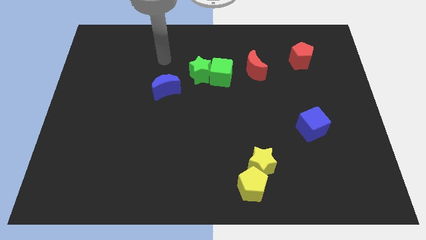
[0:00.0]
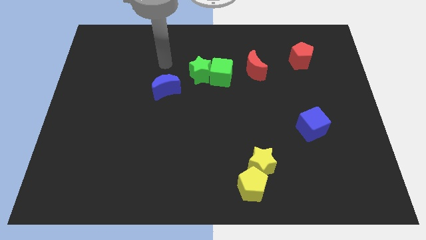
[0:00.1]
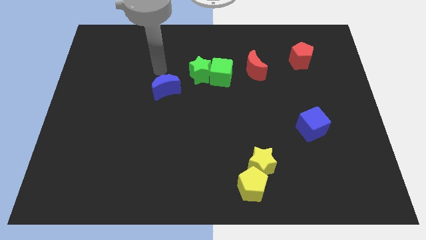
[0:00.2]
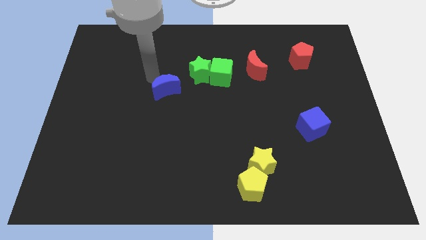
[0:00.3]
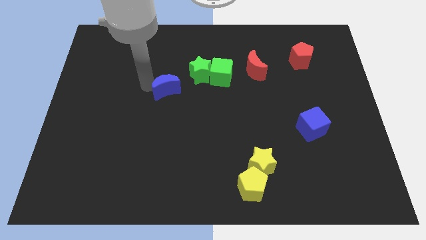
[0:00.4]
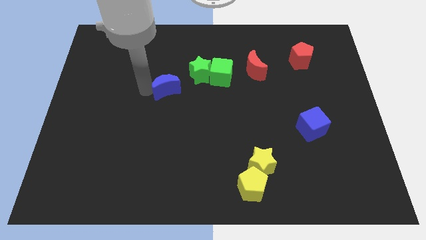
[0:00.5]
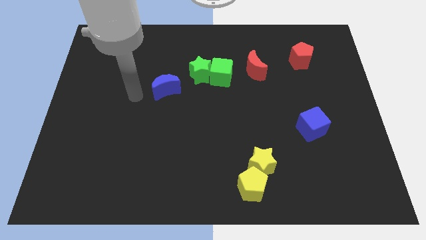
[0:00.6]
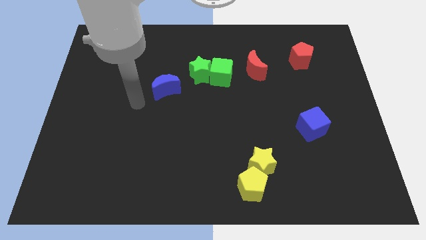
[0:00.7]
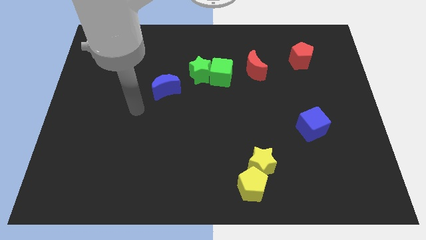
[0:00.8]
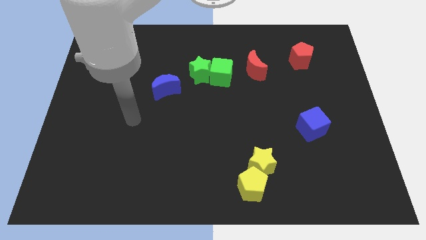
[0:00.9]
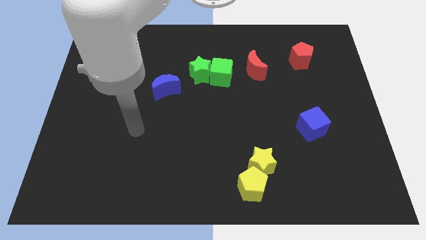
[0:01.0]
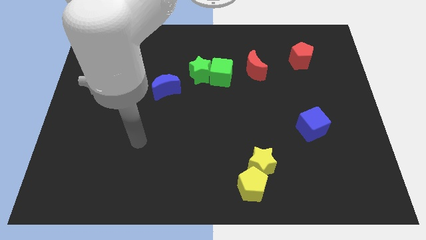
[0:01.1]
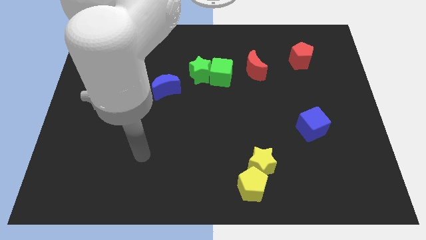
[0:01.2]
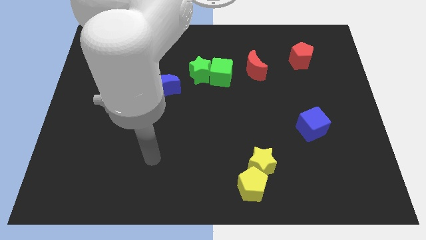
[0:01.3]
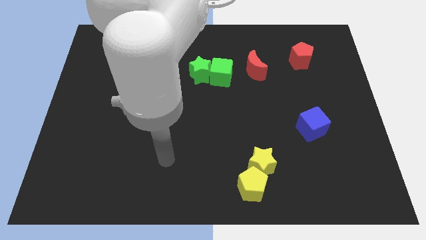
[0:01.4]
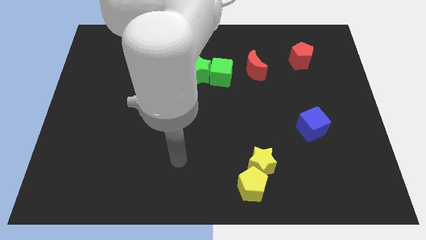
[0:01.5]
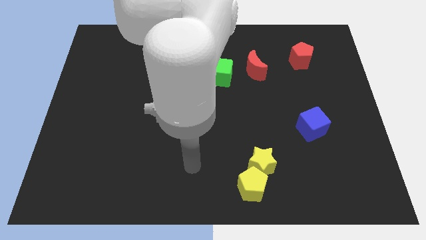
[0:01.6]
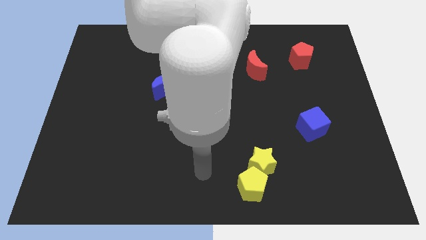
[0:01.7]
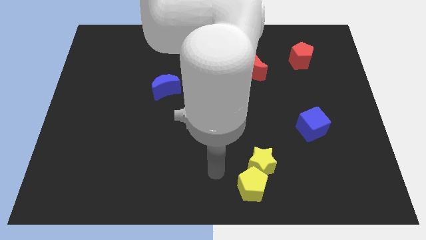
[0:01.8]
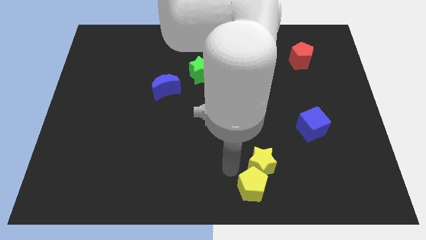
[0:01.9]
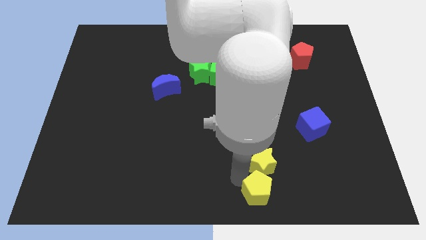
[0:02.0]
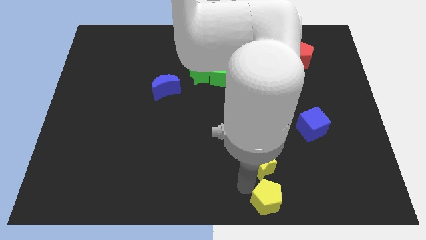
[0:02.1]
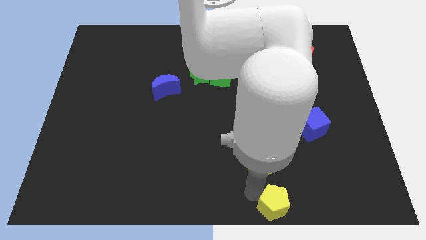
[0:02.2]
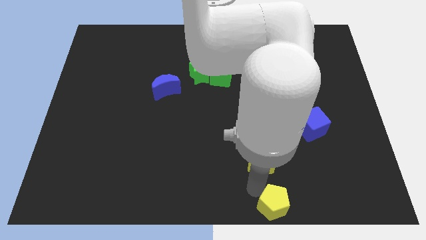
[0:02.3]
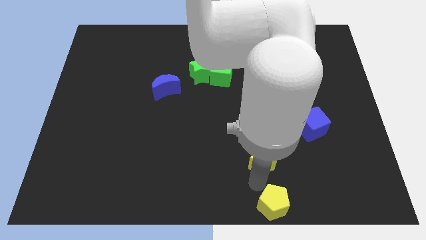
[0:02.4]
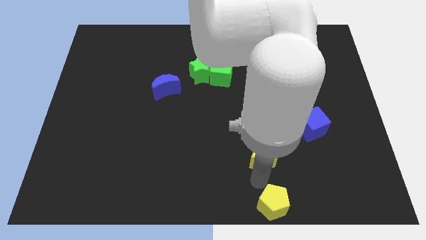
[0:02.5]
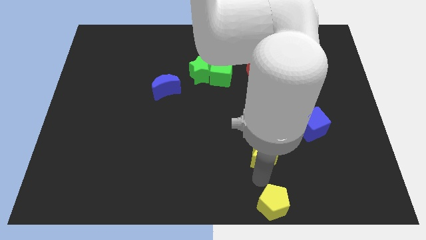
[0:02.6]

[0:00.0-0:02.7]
move the yellow star away from the yellow pentagon

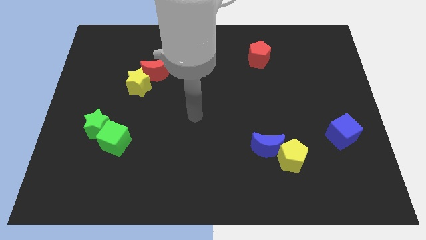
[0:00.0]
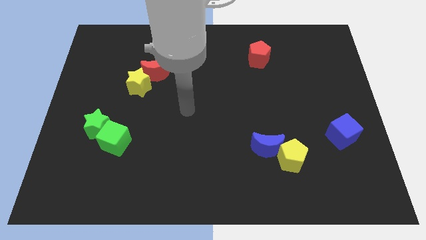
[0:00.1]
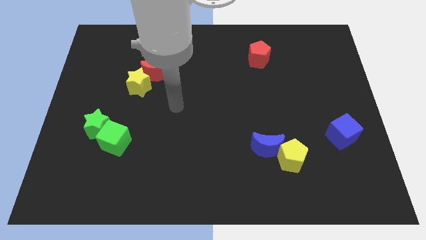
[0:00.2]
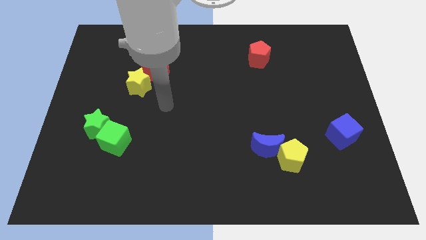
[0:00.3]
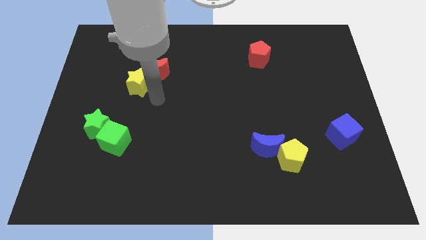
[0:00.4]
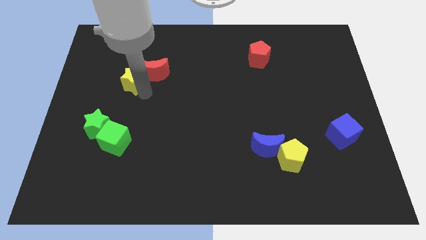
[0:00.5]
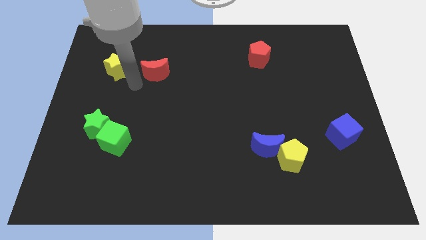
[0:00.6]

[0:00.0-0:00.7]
separate the red moon from the yellow star

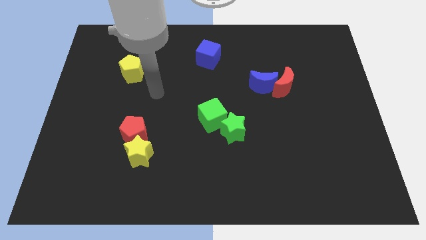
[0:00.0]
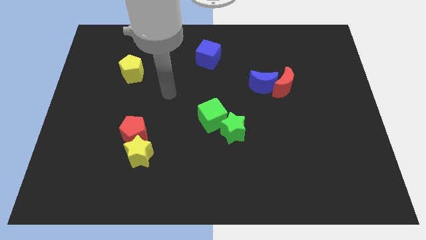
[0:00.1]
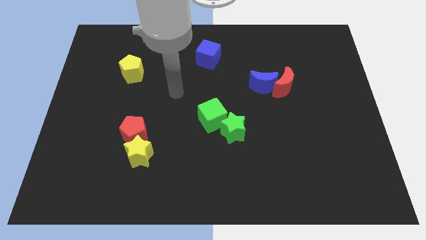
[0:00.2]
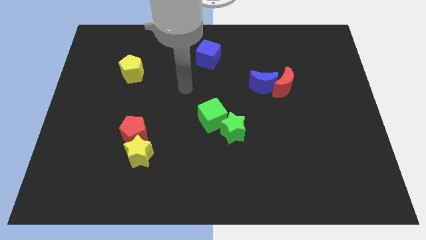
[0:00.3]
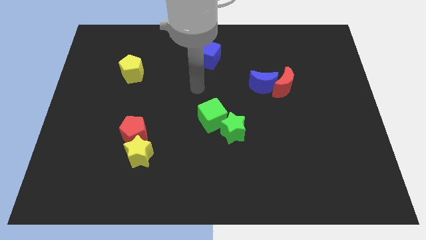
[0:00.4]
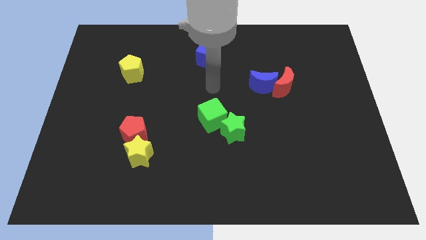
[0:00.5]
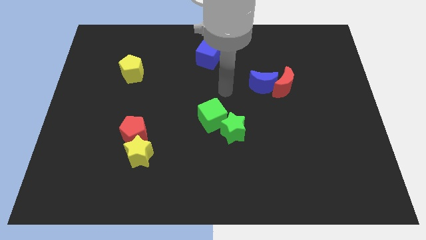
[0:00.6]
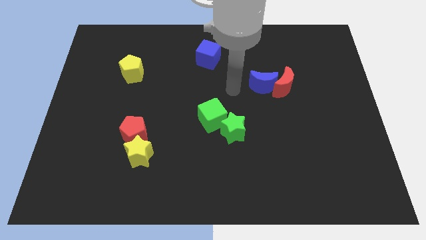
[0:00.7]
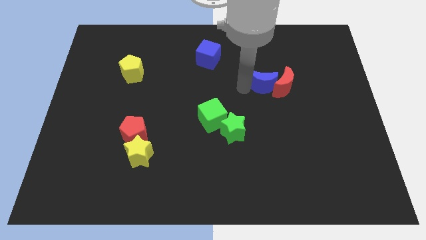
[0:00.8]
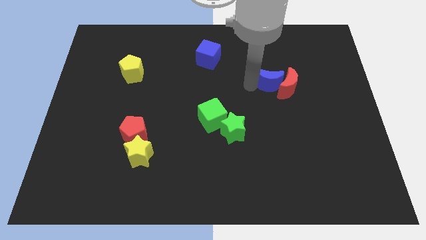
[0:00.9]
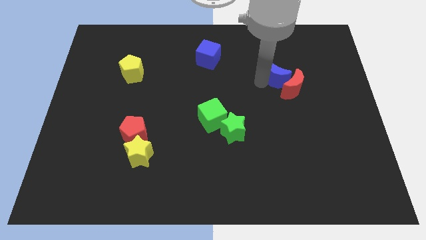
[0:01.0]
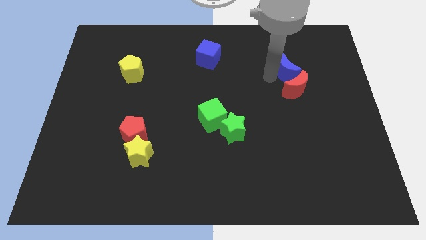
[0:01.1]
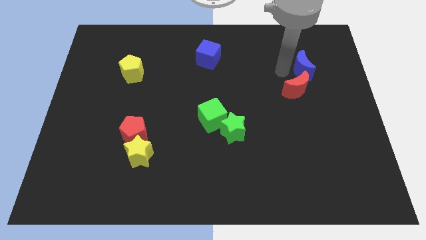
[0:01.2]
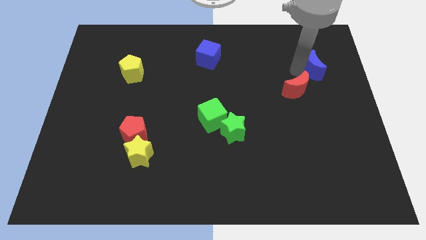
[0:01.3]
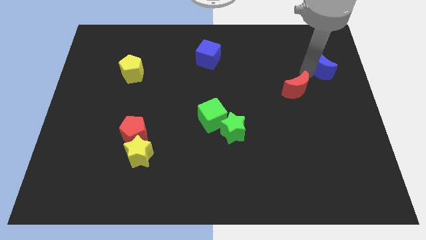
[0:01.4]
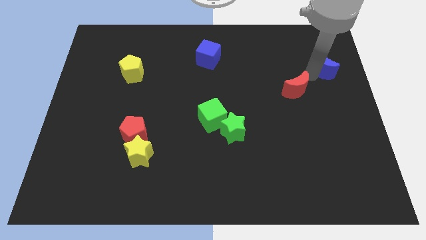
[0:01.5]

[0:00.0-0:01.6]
separate the red moon from the blue moon

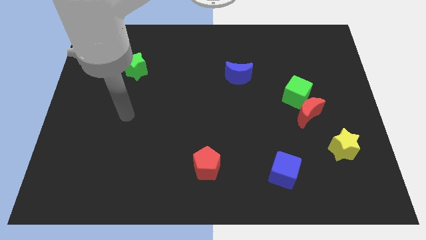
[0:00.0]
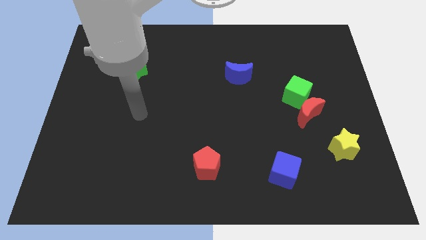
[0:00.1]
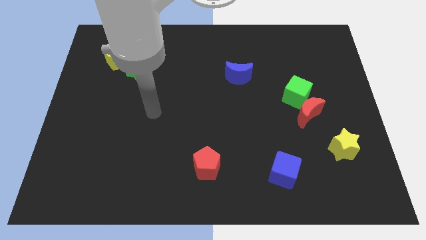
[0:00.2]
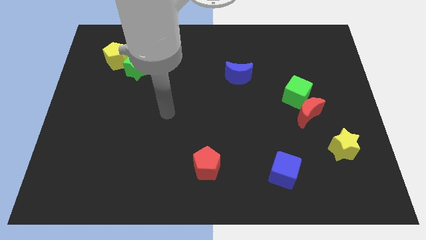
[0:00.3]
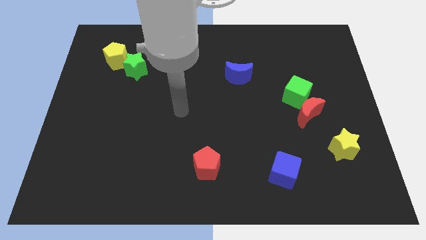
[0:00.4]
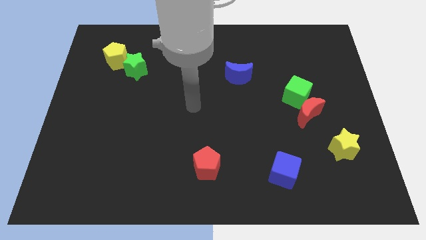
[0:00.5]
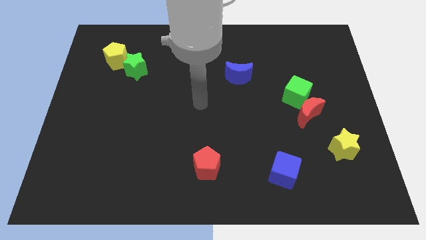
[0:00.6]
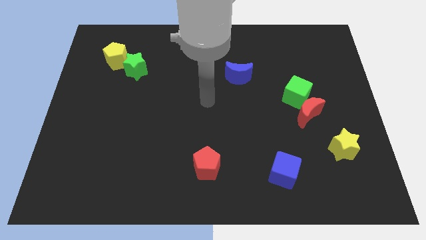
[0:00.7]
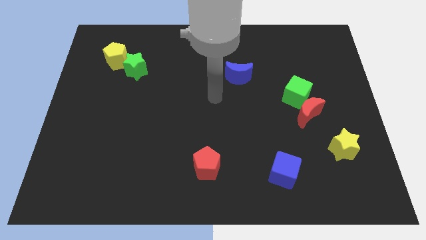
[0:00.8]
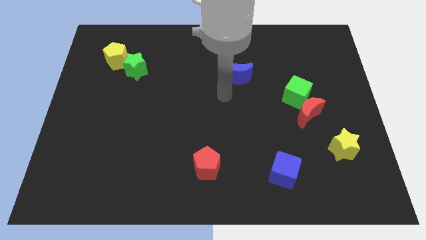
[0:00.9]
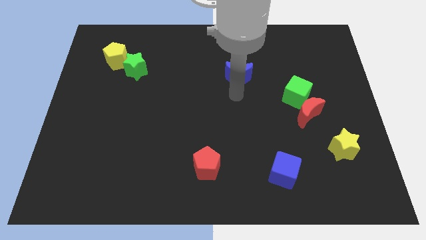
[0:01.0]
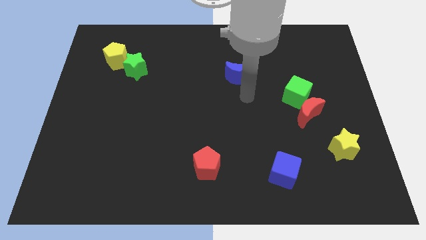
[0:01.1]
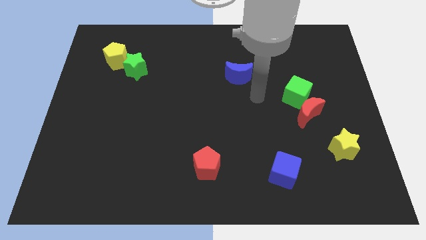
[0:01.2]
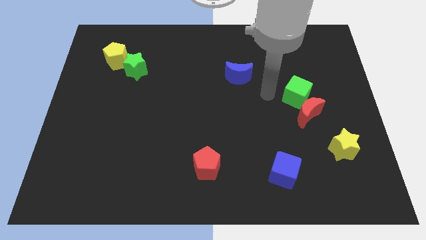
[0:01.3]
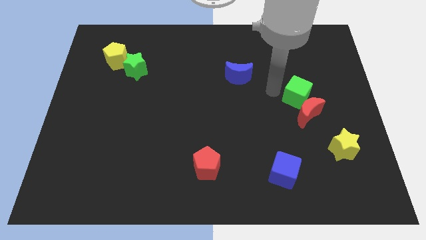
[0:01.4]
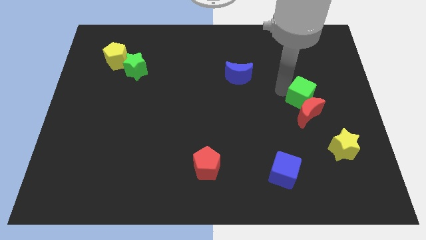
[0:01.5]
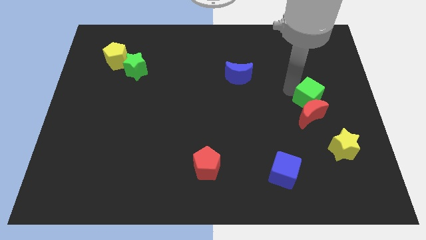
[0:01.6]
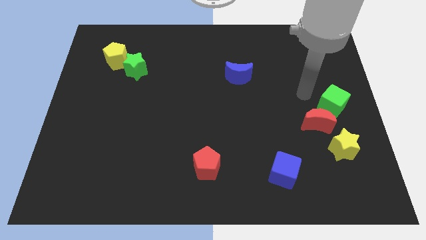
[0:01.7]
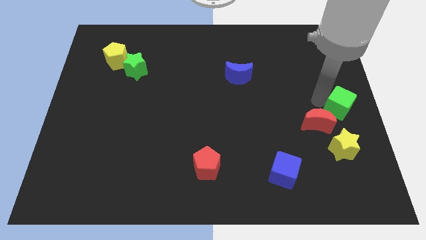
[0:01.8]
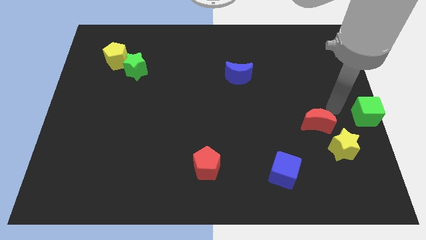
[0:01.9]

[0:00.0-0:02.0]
pull the red moon apart from the green cube

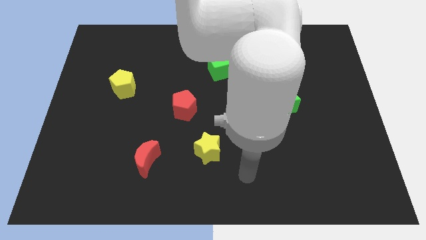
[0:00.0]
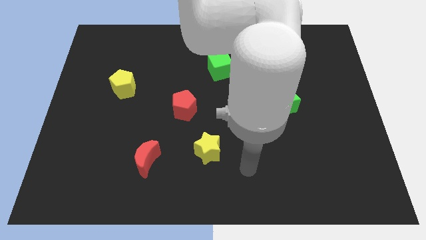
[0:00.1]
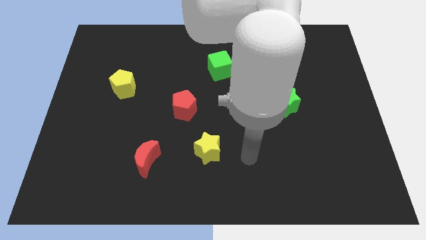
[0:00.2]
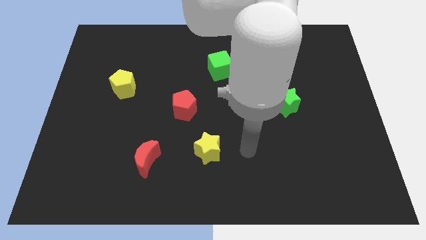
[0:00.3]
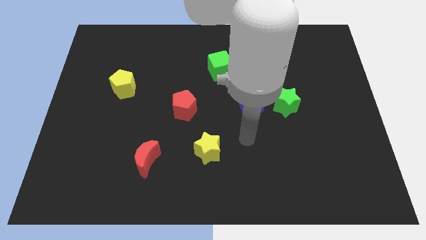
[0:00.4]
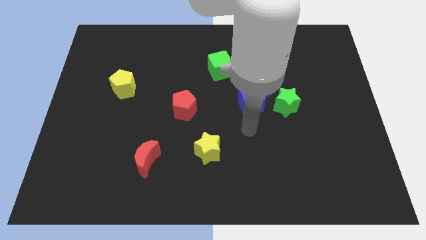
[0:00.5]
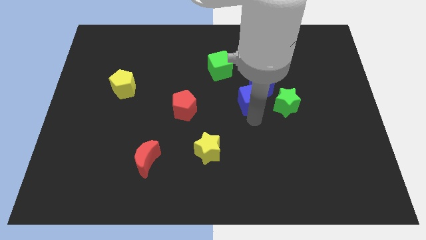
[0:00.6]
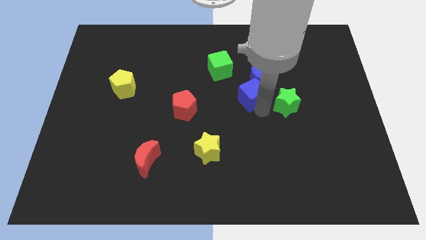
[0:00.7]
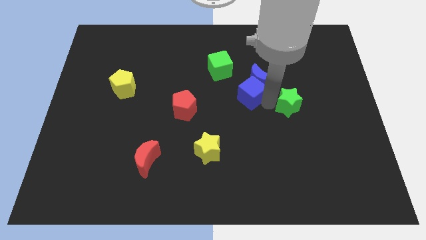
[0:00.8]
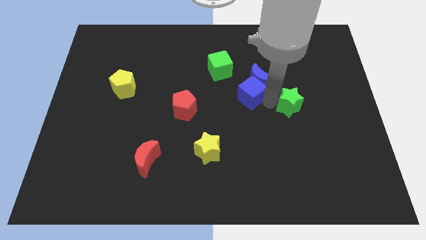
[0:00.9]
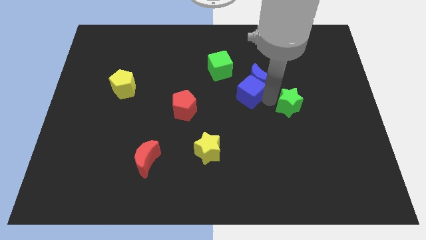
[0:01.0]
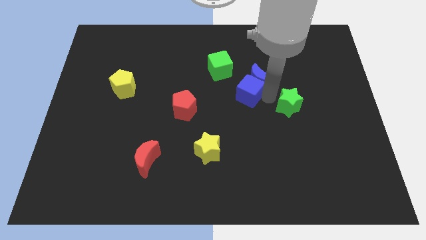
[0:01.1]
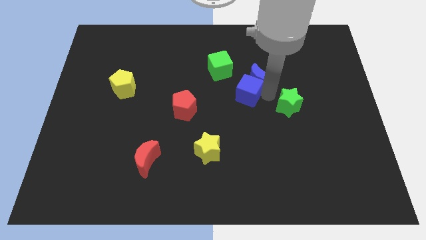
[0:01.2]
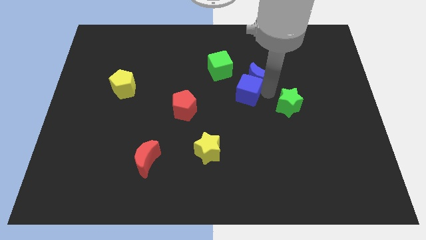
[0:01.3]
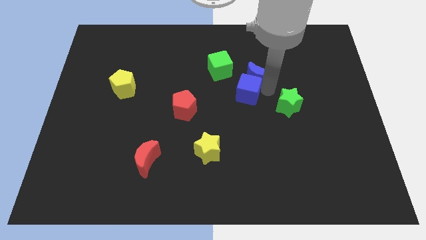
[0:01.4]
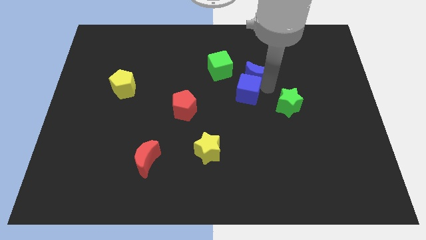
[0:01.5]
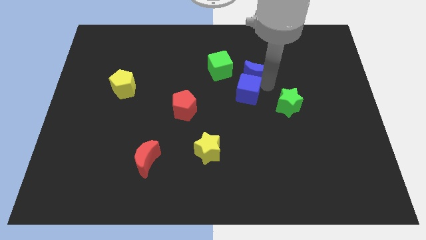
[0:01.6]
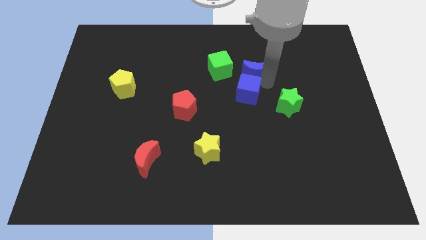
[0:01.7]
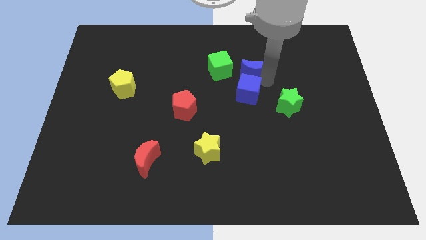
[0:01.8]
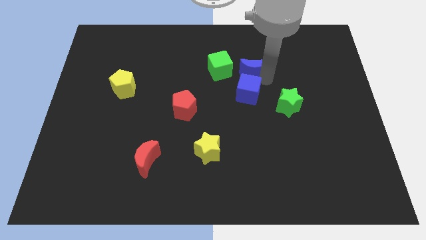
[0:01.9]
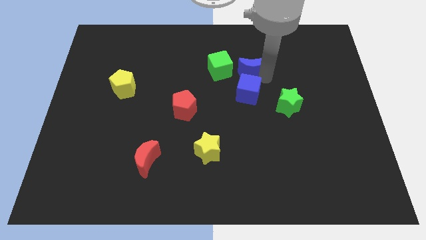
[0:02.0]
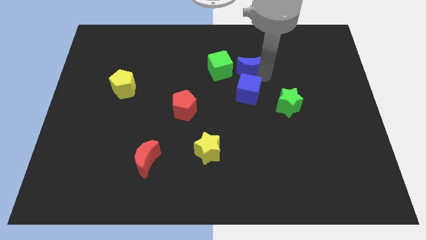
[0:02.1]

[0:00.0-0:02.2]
move the blue moon away from the blue cube and green star

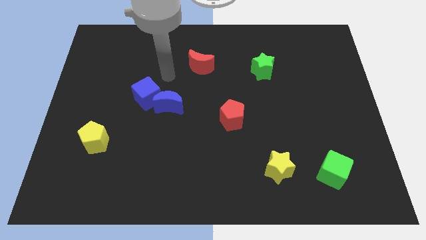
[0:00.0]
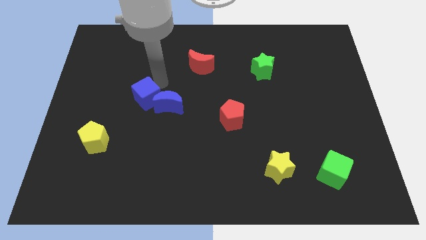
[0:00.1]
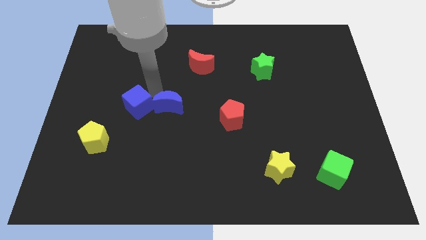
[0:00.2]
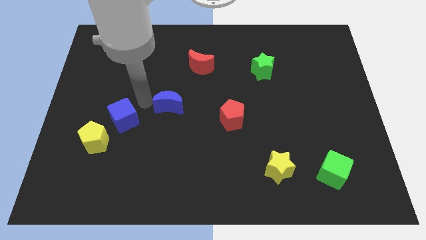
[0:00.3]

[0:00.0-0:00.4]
separate the blue moon from the blue cube
